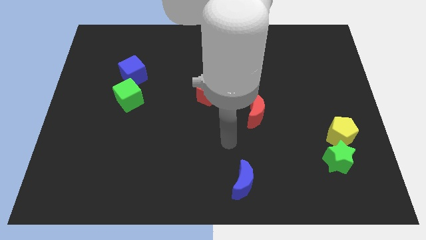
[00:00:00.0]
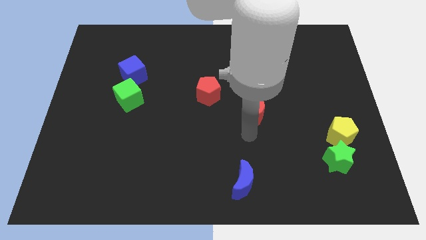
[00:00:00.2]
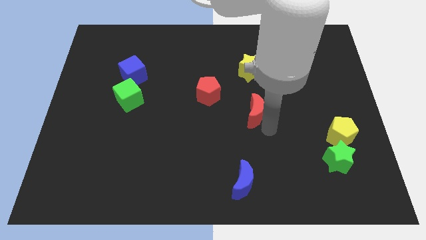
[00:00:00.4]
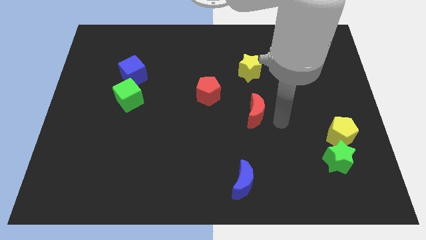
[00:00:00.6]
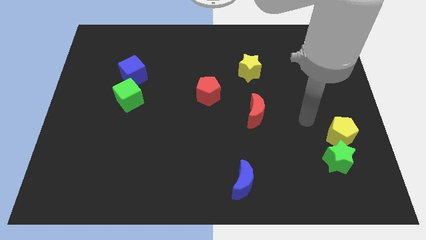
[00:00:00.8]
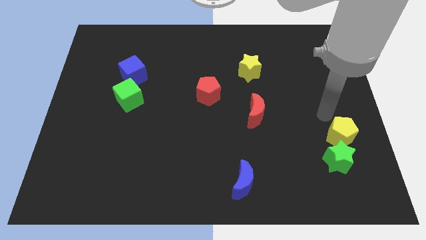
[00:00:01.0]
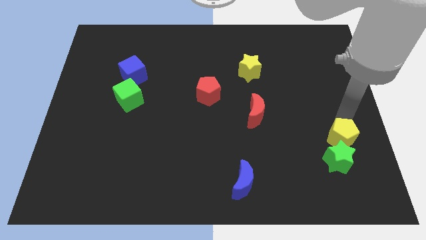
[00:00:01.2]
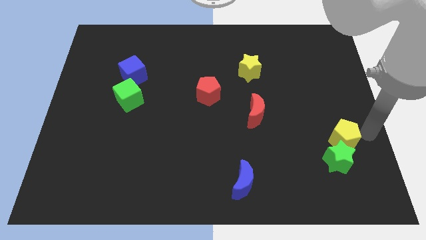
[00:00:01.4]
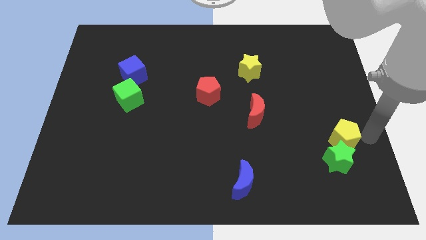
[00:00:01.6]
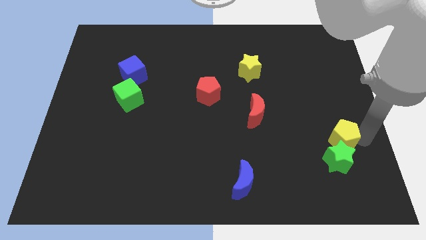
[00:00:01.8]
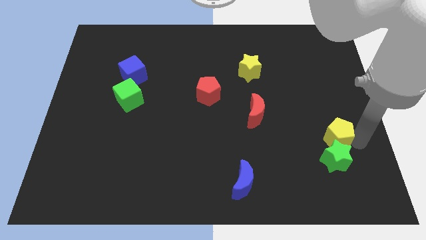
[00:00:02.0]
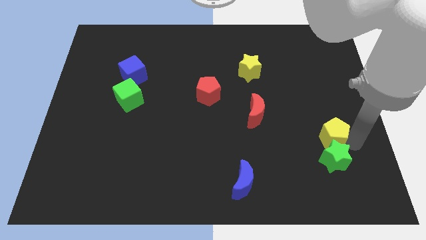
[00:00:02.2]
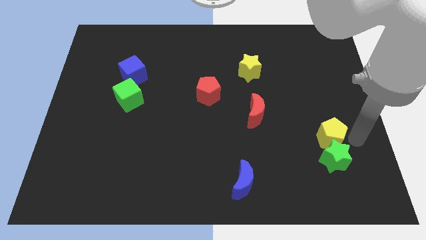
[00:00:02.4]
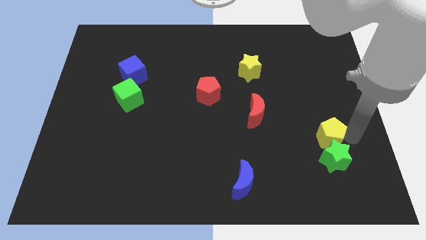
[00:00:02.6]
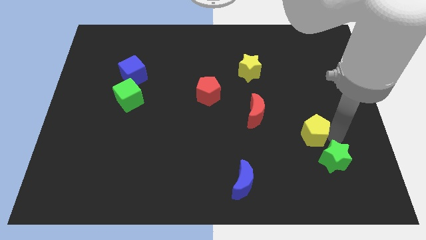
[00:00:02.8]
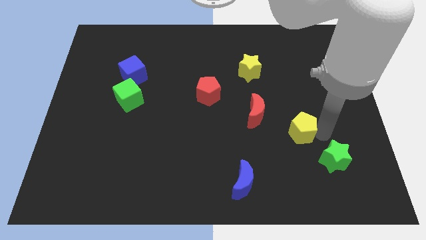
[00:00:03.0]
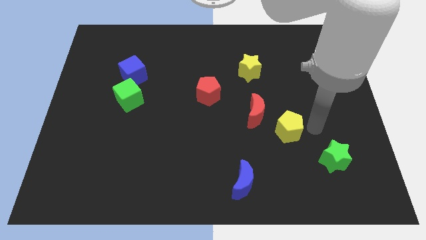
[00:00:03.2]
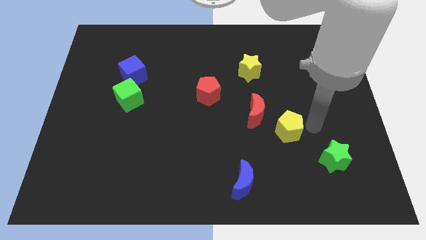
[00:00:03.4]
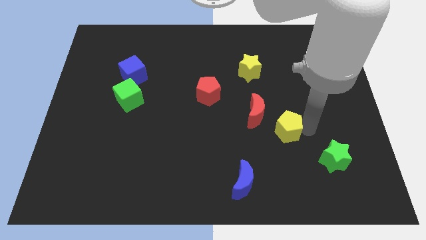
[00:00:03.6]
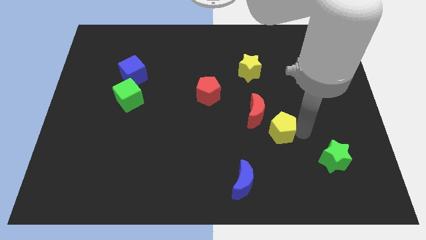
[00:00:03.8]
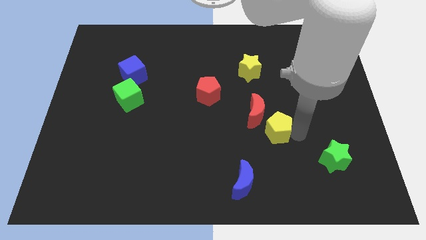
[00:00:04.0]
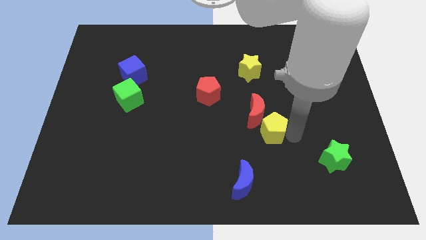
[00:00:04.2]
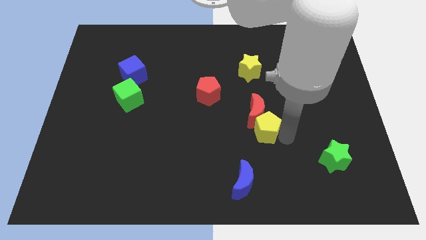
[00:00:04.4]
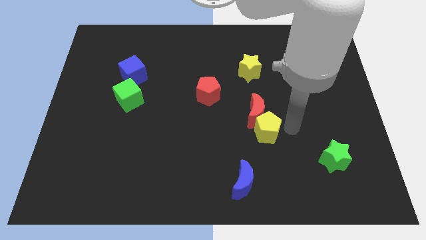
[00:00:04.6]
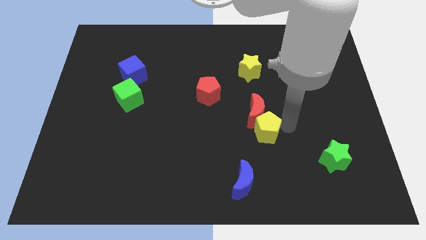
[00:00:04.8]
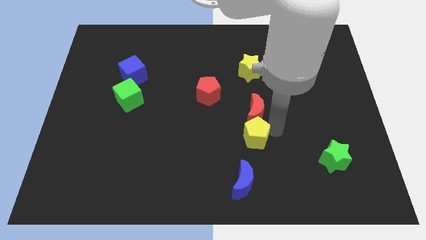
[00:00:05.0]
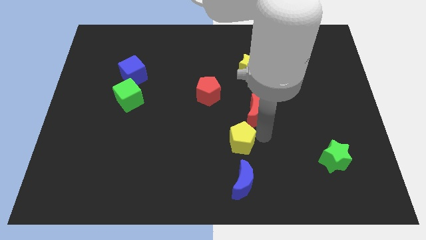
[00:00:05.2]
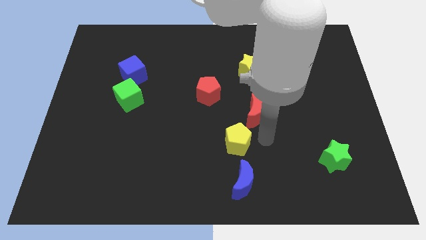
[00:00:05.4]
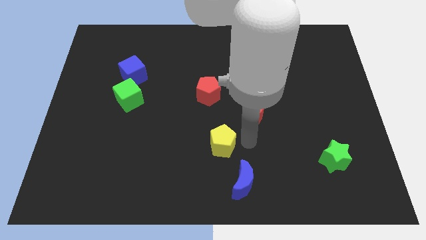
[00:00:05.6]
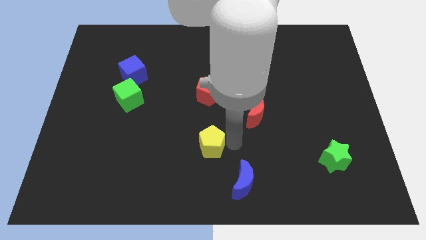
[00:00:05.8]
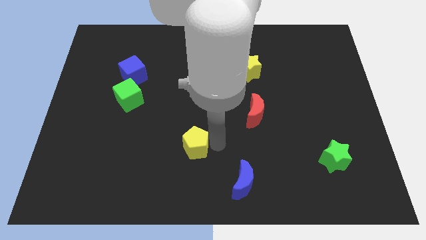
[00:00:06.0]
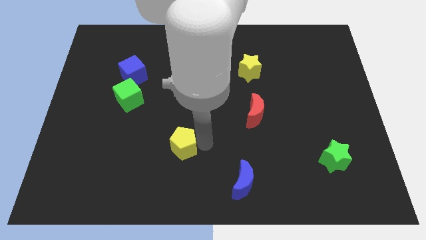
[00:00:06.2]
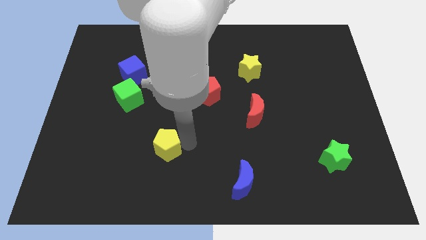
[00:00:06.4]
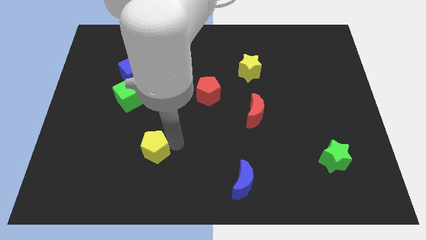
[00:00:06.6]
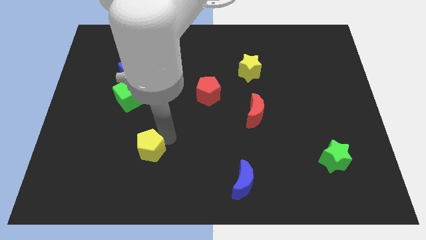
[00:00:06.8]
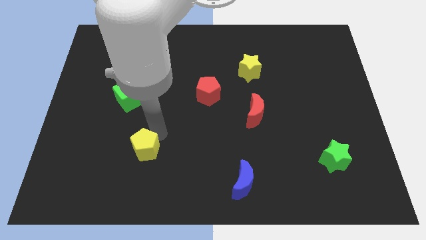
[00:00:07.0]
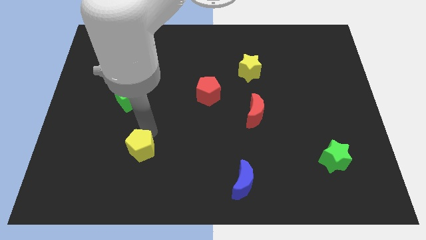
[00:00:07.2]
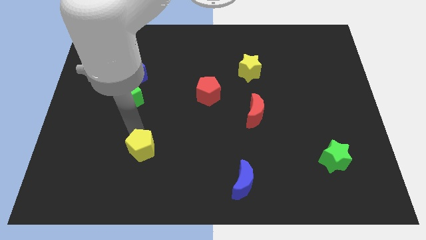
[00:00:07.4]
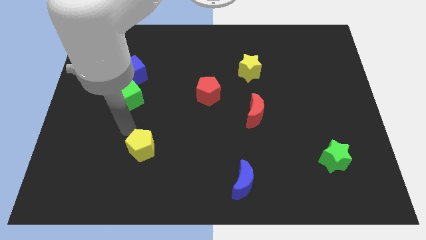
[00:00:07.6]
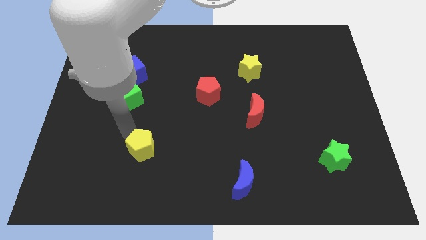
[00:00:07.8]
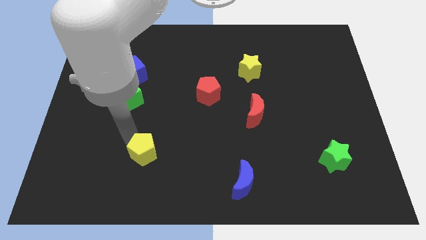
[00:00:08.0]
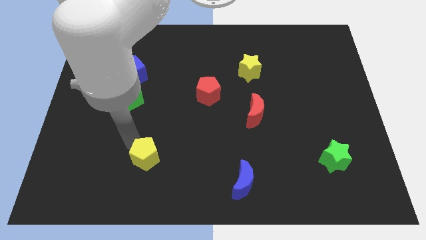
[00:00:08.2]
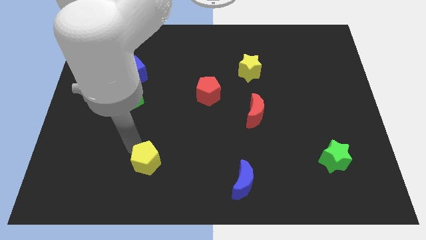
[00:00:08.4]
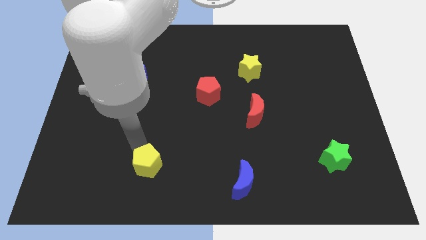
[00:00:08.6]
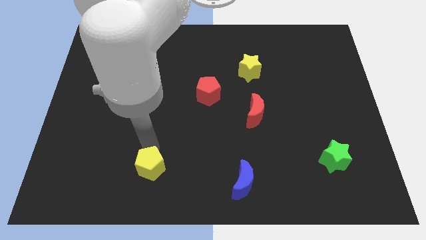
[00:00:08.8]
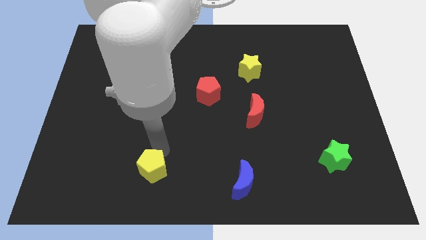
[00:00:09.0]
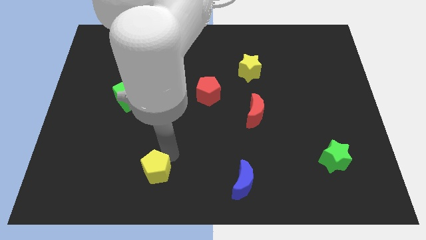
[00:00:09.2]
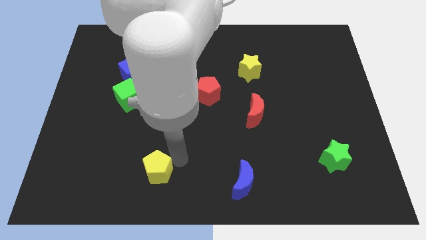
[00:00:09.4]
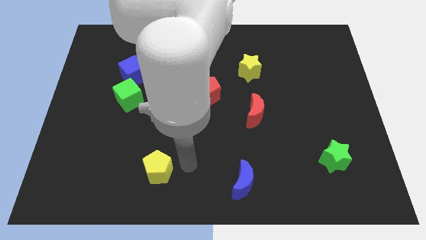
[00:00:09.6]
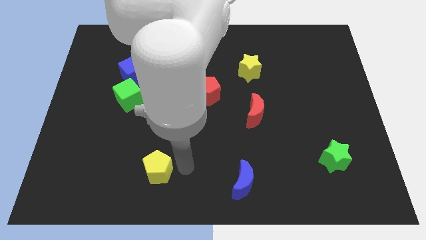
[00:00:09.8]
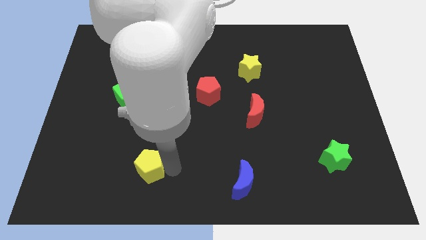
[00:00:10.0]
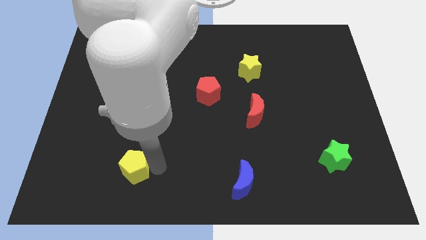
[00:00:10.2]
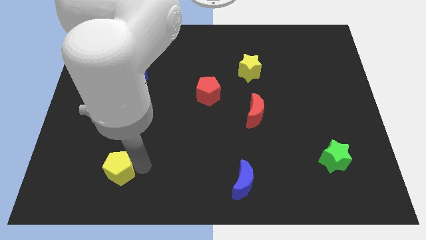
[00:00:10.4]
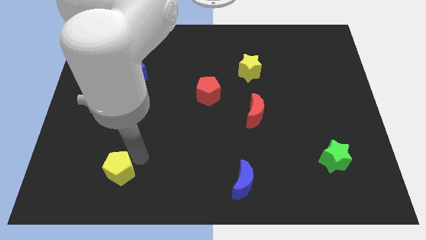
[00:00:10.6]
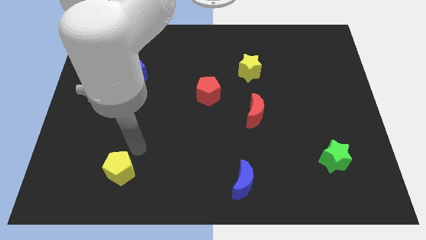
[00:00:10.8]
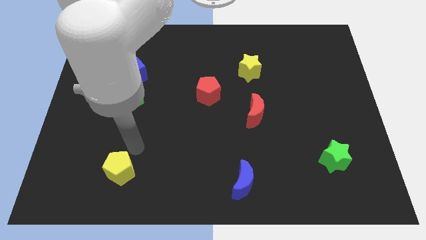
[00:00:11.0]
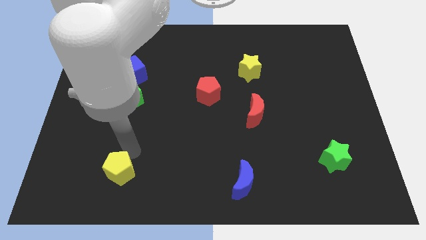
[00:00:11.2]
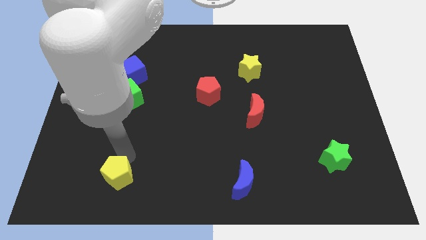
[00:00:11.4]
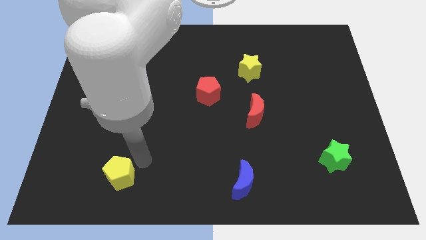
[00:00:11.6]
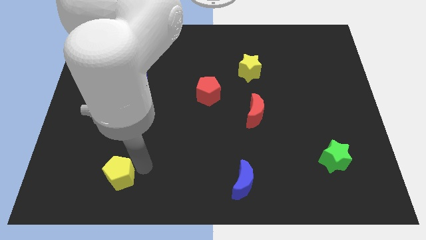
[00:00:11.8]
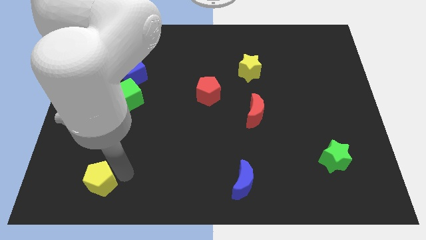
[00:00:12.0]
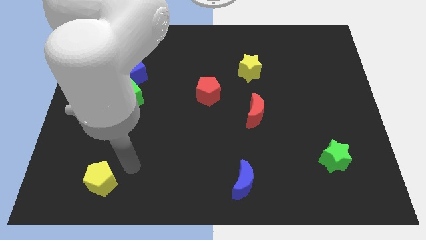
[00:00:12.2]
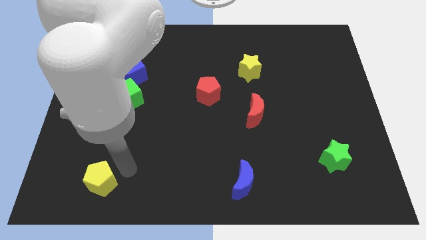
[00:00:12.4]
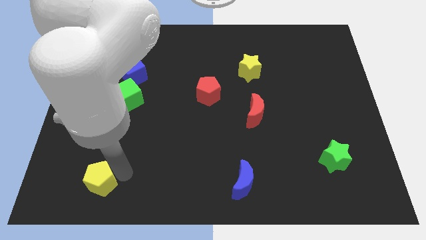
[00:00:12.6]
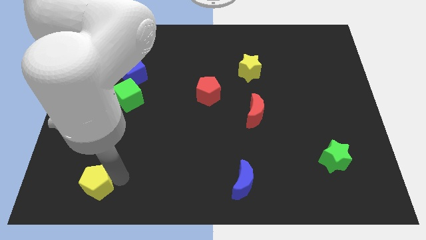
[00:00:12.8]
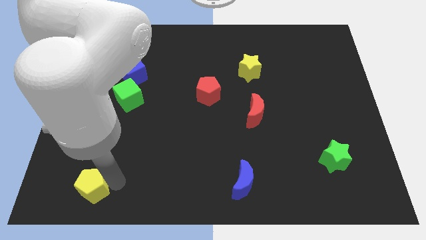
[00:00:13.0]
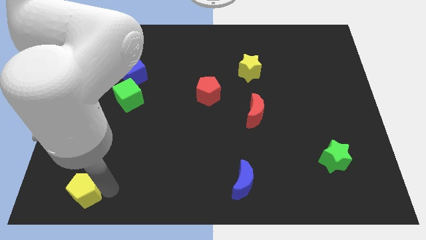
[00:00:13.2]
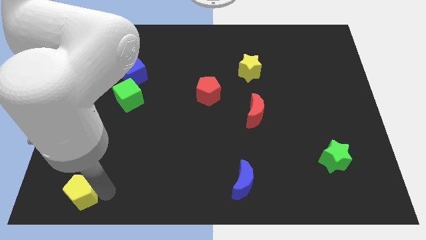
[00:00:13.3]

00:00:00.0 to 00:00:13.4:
push the yellow pentagon to the bottom left of the board
